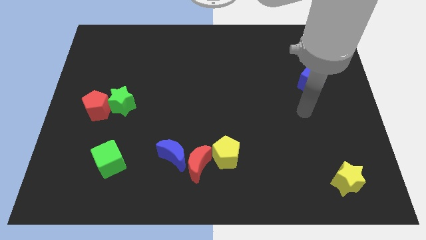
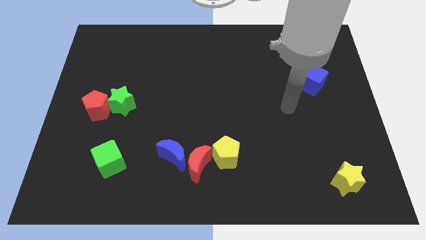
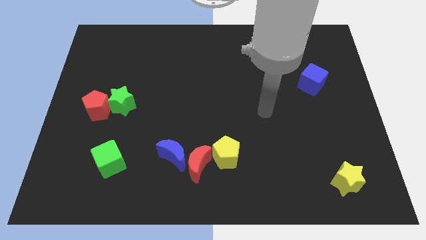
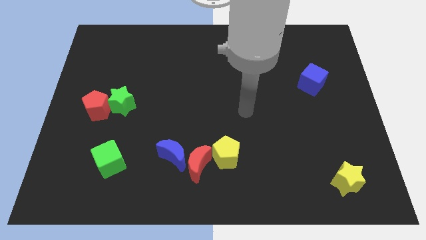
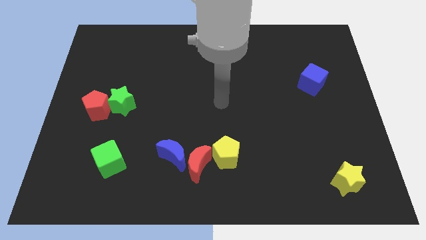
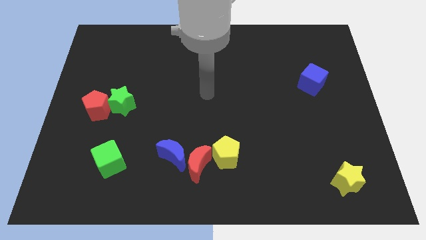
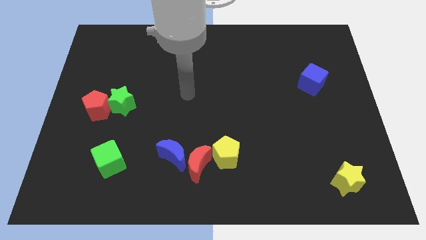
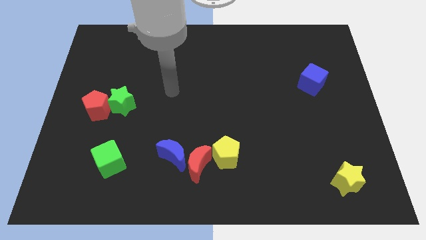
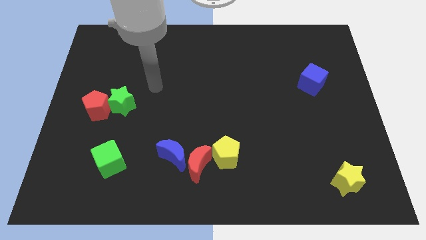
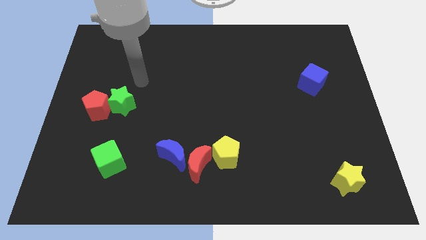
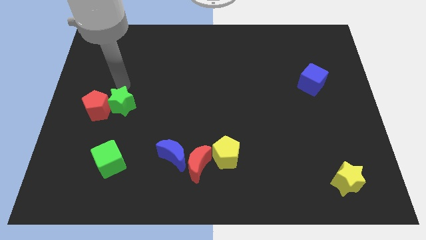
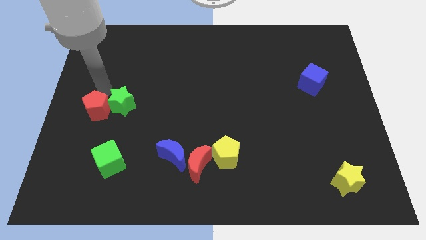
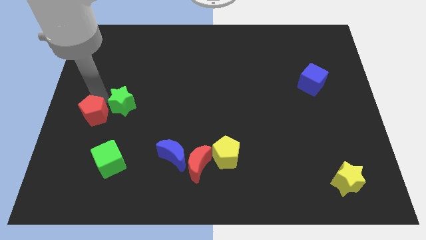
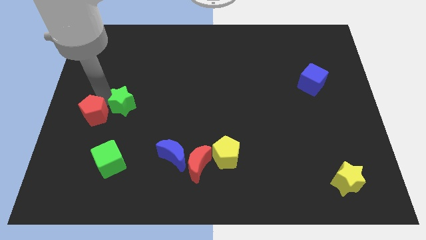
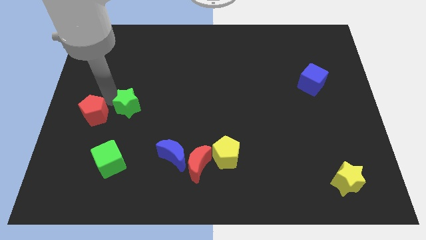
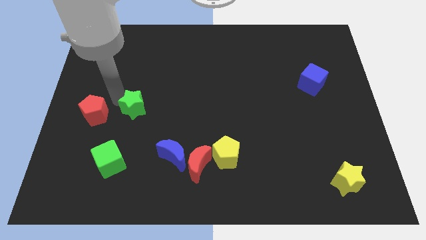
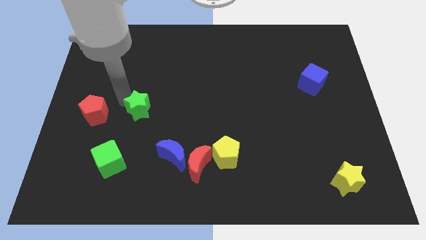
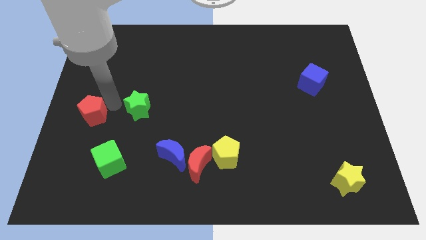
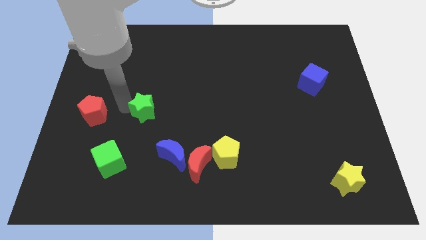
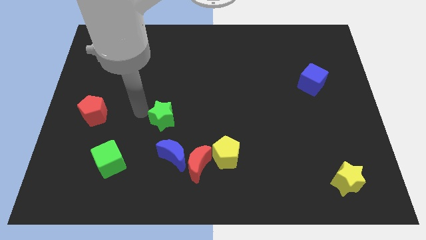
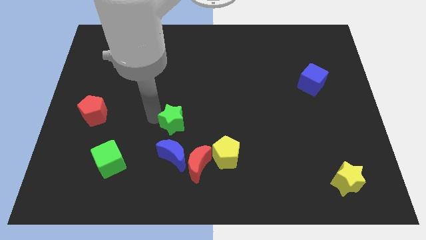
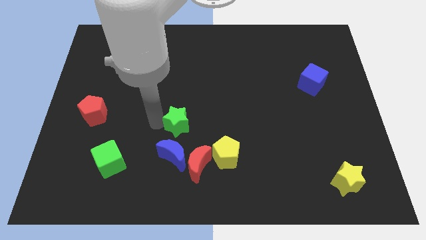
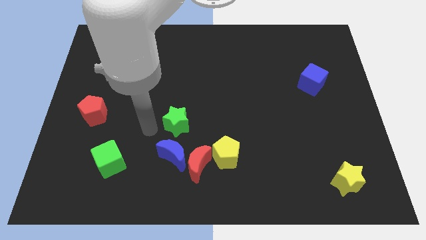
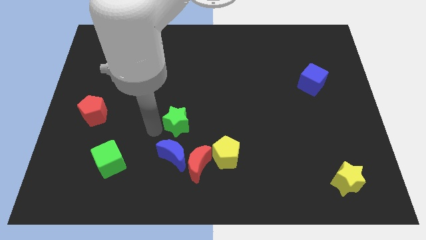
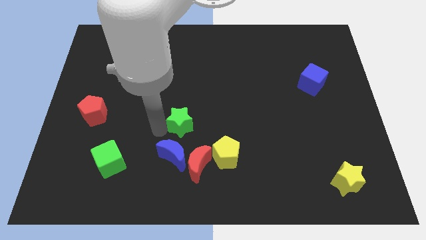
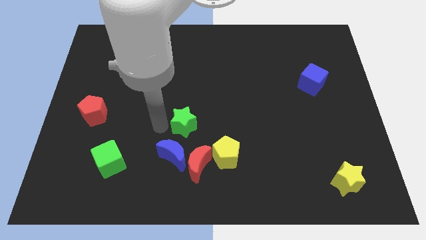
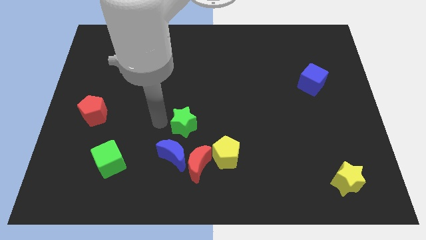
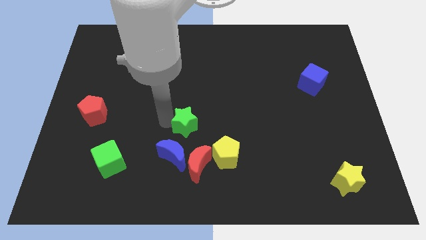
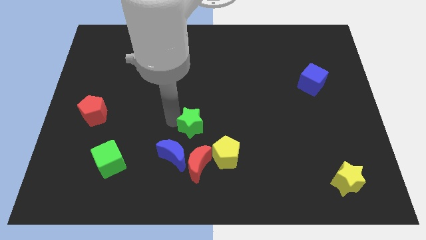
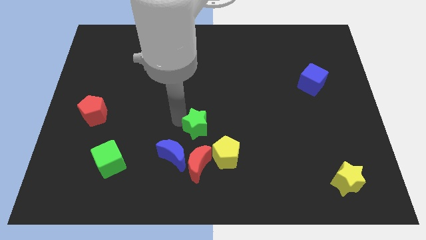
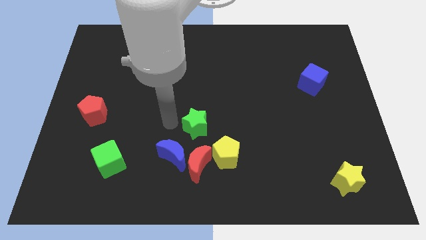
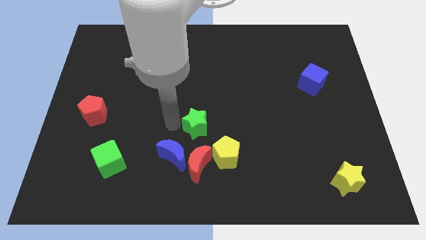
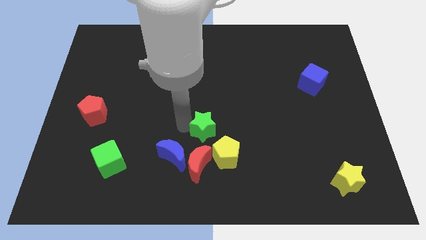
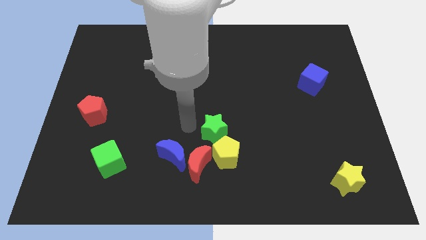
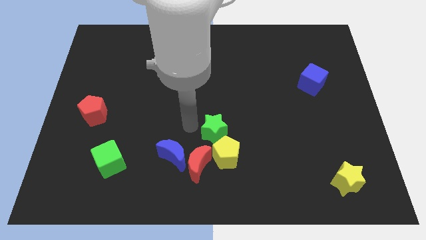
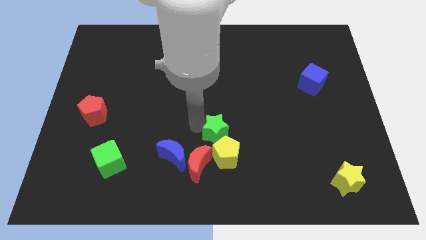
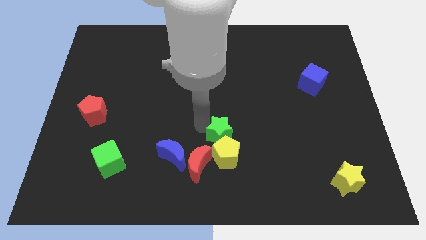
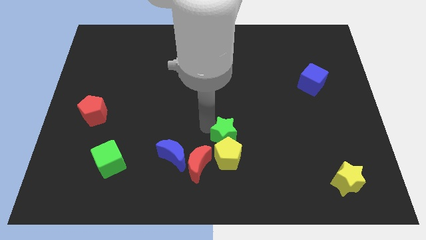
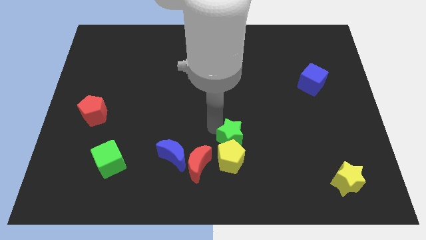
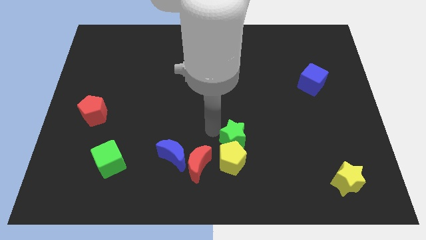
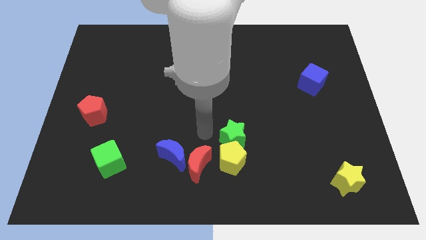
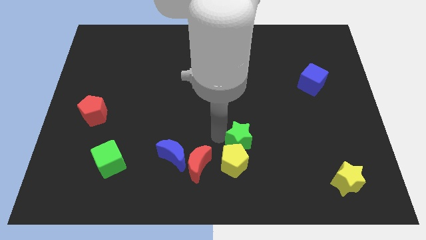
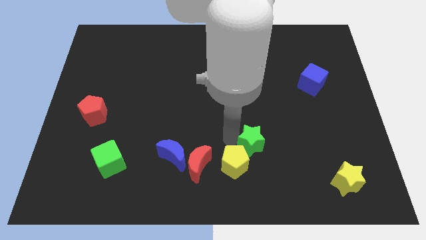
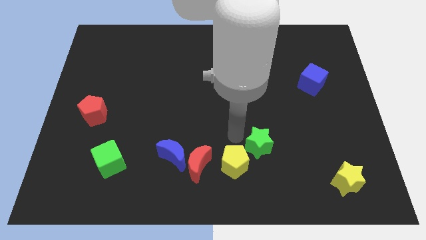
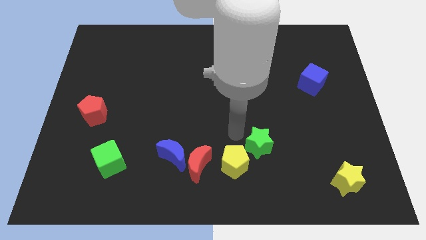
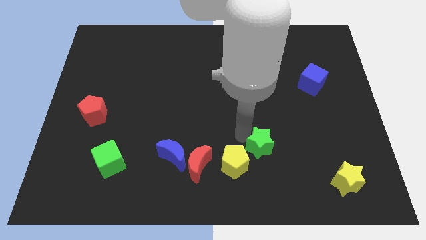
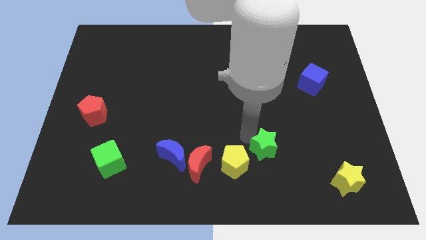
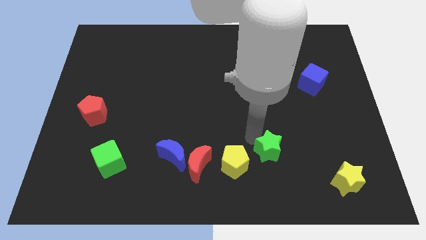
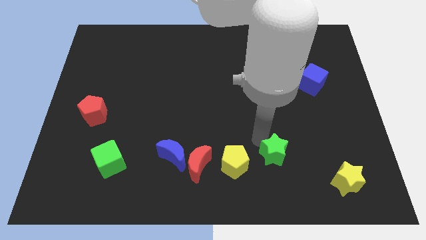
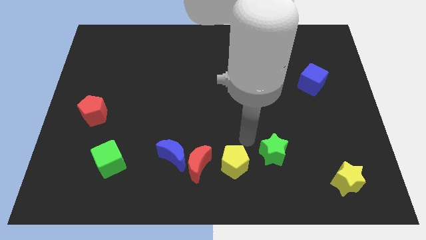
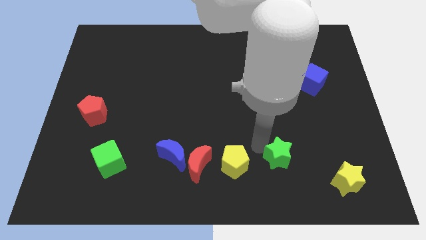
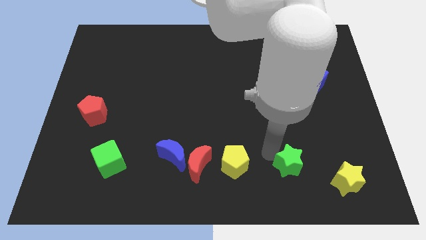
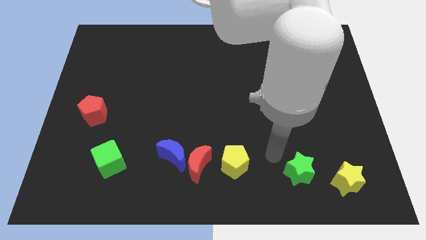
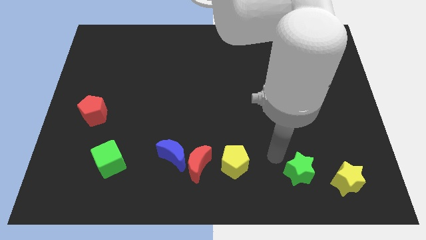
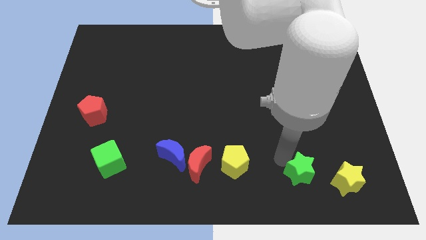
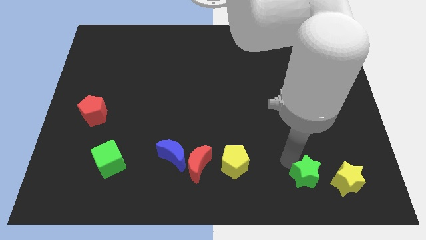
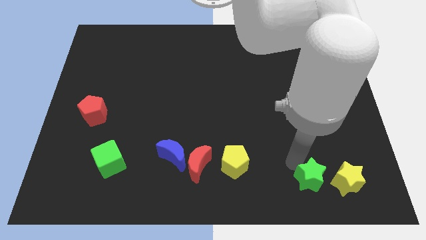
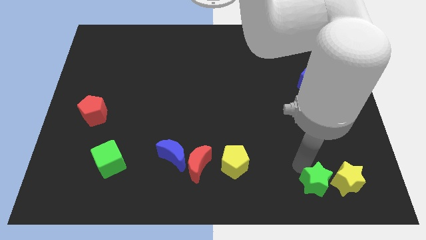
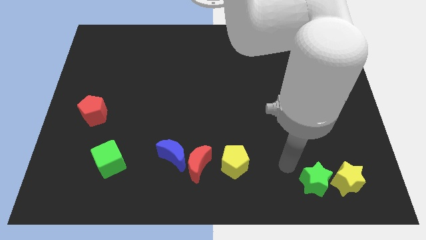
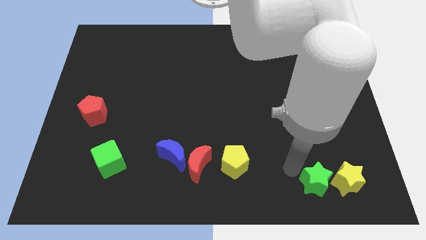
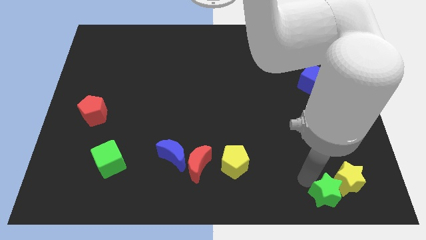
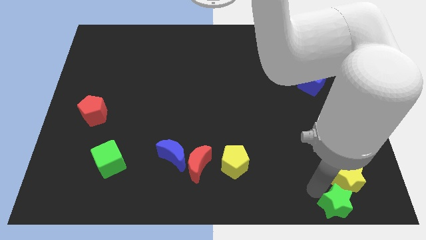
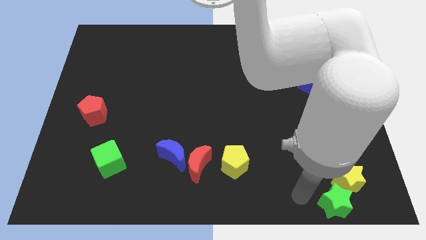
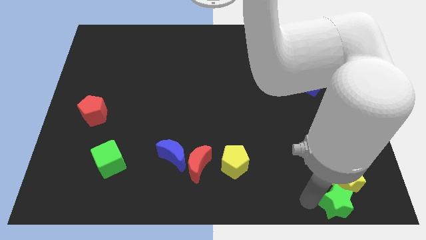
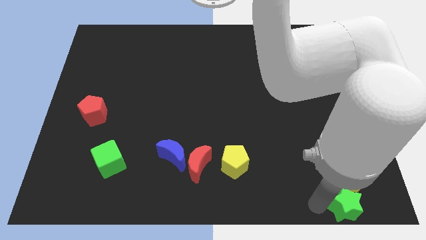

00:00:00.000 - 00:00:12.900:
put the green star to the lower right corner

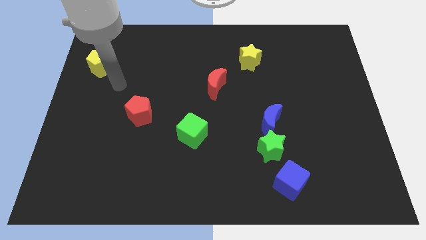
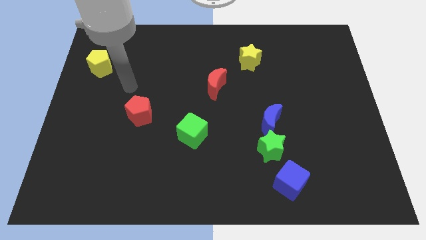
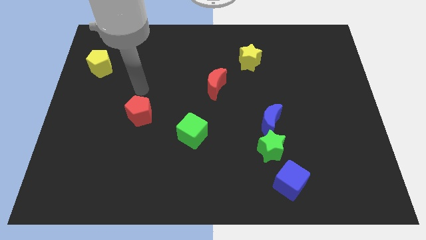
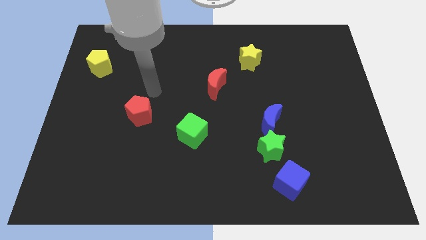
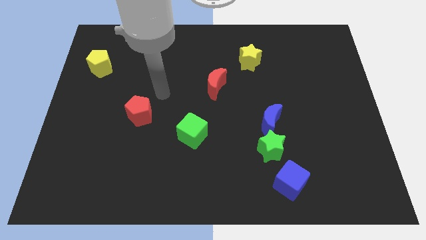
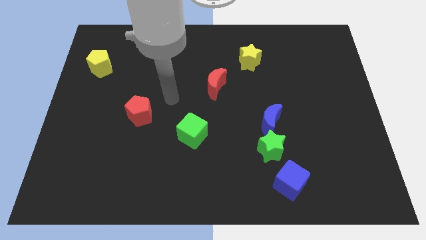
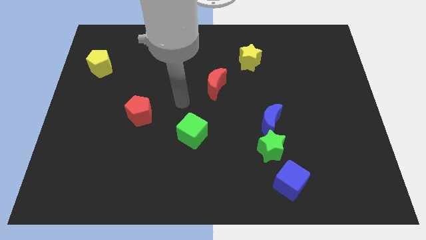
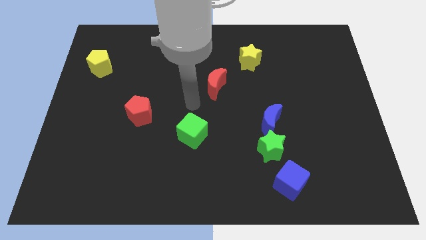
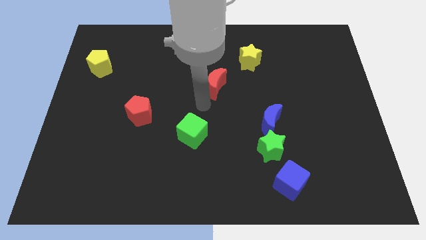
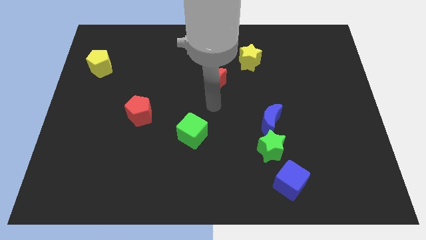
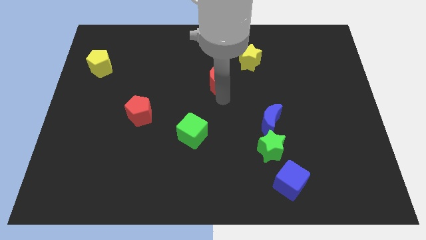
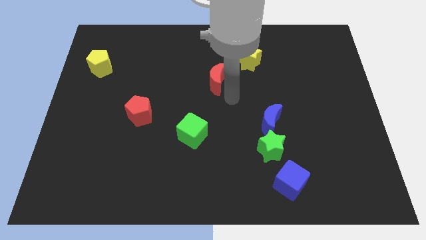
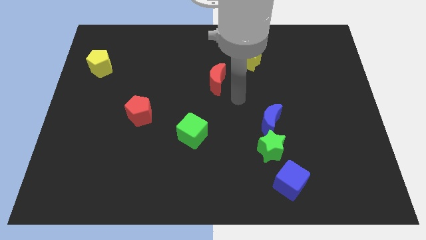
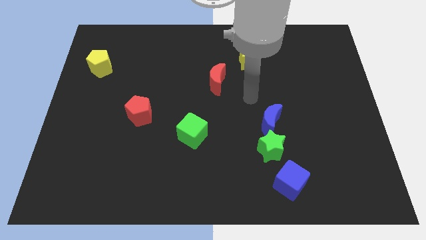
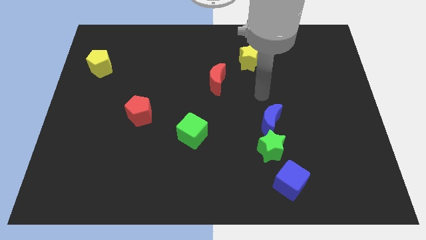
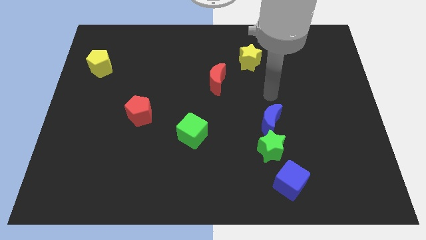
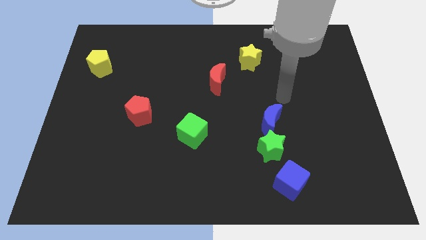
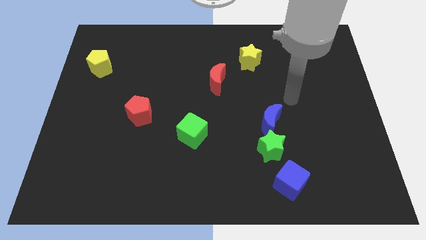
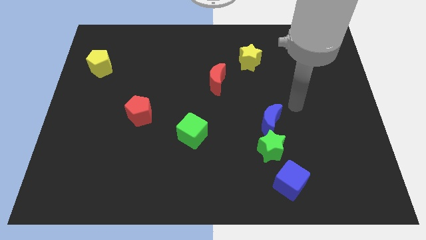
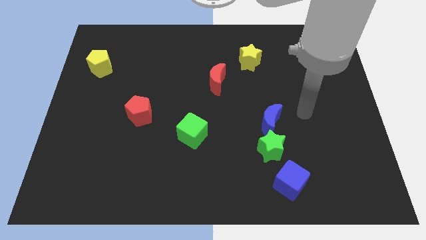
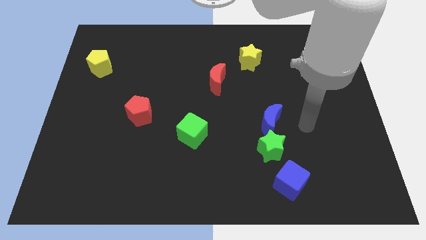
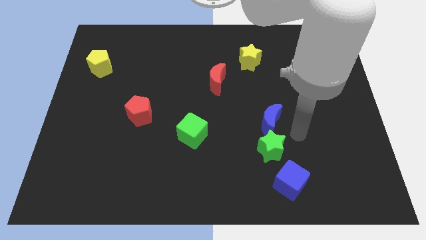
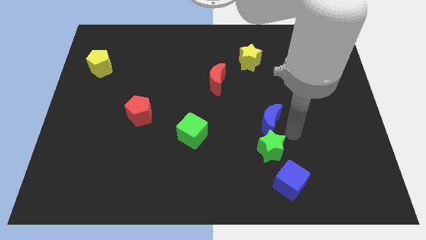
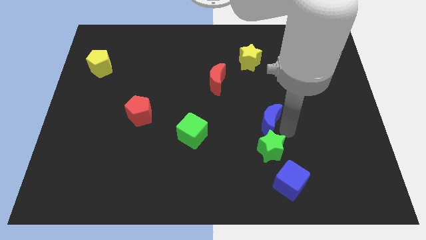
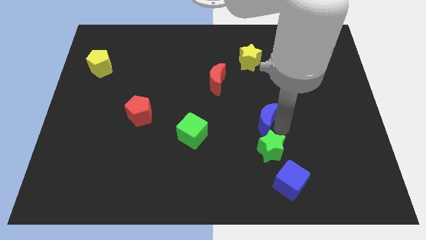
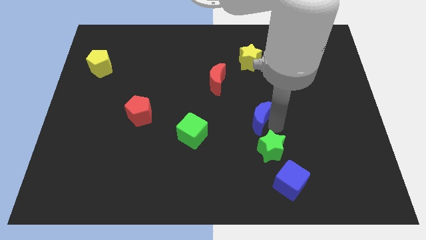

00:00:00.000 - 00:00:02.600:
push the blue moon to the center of the board
